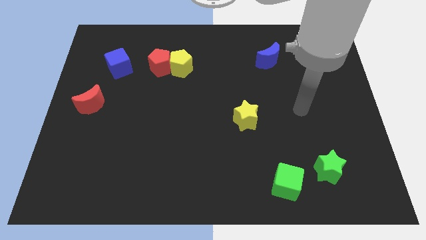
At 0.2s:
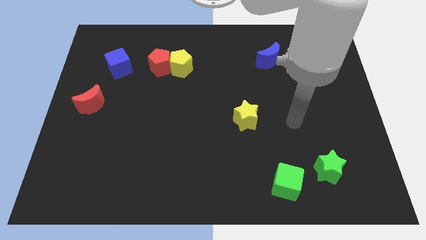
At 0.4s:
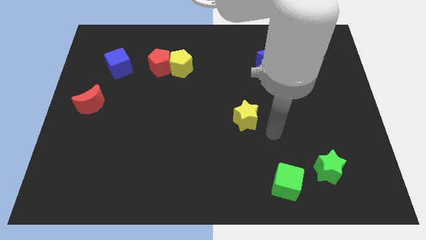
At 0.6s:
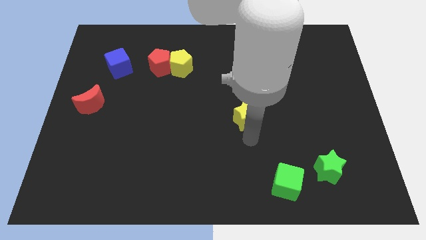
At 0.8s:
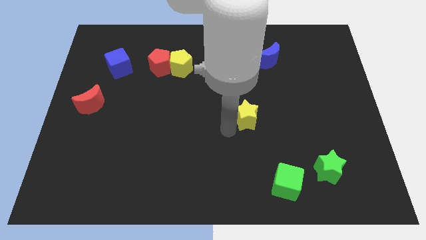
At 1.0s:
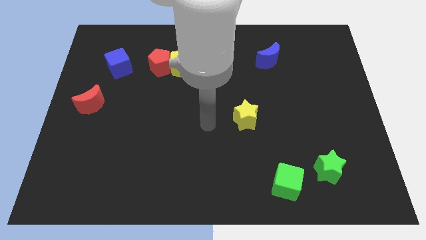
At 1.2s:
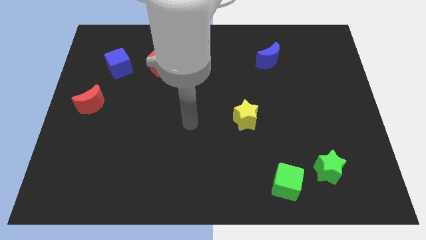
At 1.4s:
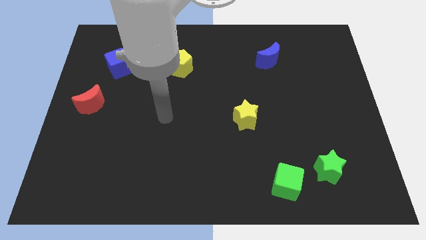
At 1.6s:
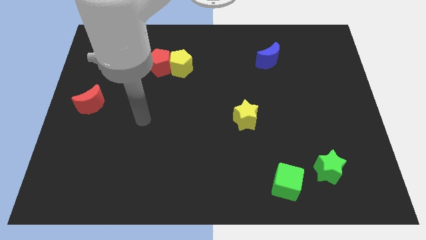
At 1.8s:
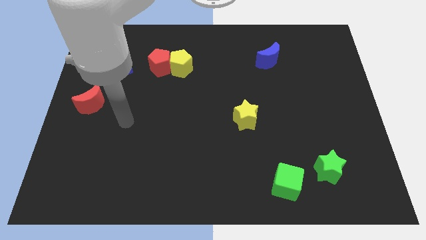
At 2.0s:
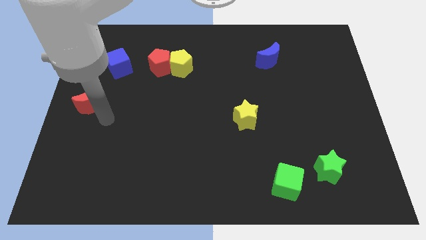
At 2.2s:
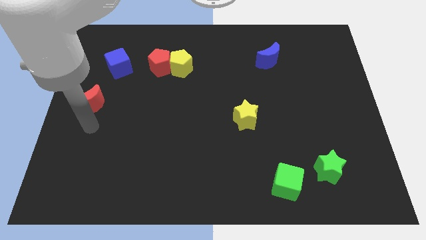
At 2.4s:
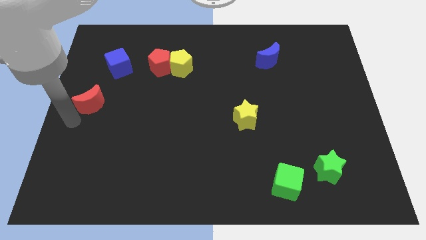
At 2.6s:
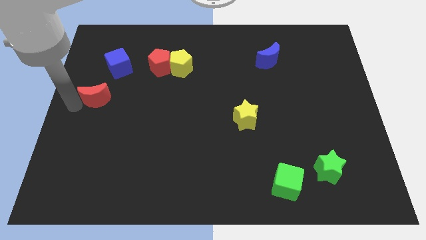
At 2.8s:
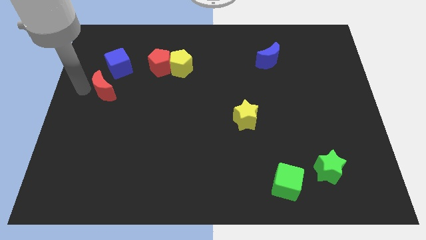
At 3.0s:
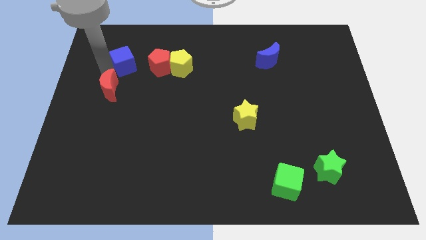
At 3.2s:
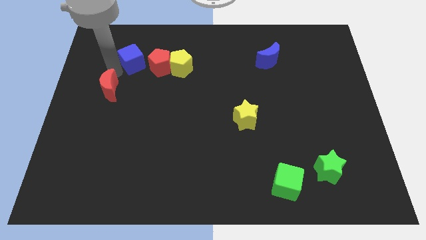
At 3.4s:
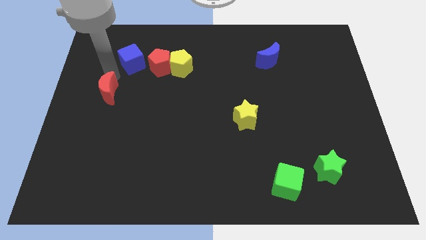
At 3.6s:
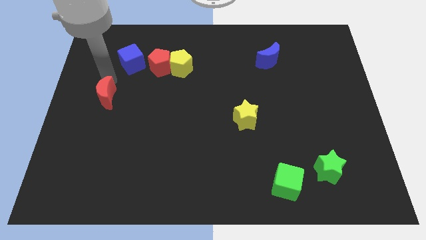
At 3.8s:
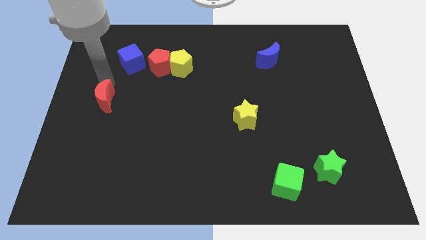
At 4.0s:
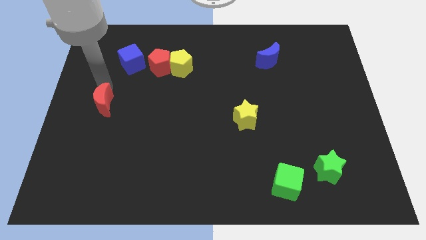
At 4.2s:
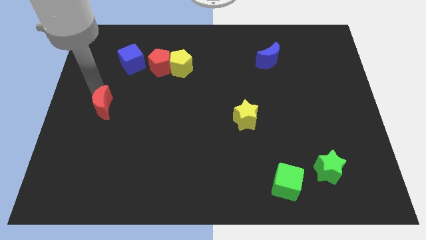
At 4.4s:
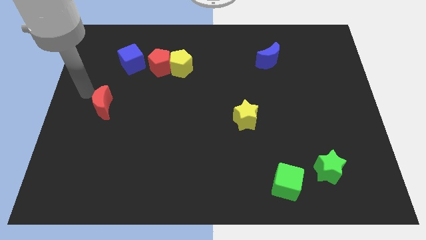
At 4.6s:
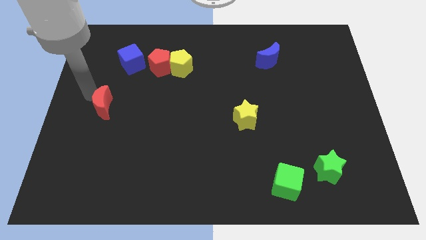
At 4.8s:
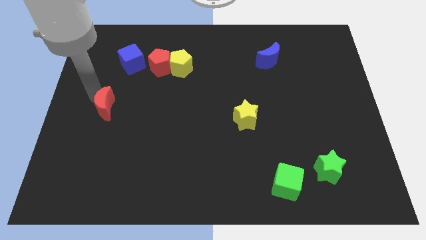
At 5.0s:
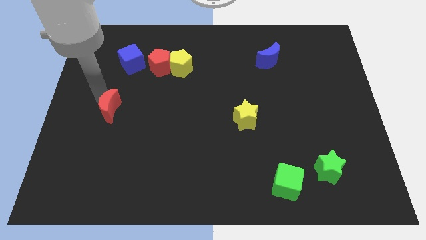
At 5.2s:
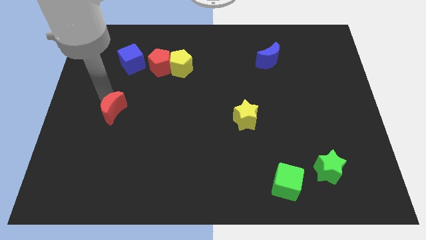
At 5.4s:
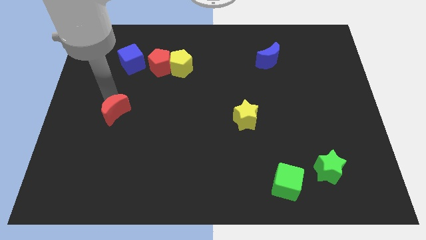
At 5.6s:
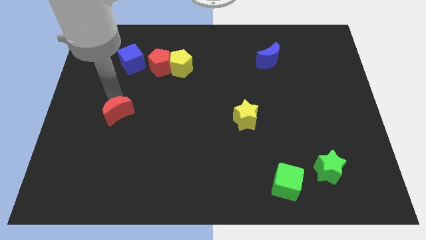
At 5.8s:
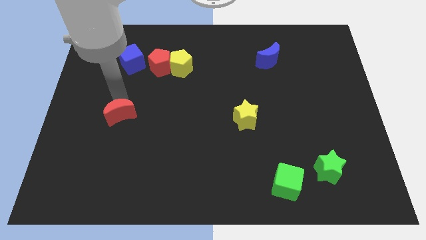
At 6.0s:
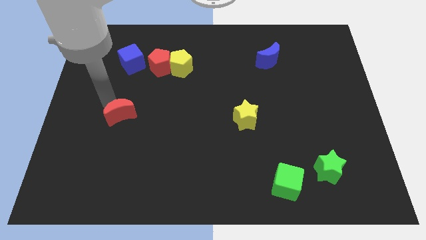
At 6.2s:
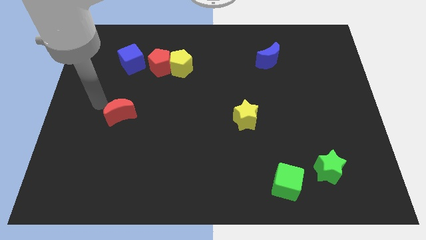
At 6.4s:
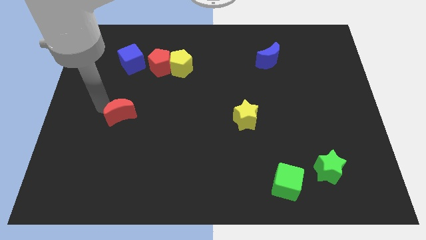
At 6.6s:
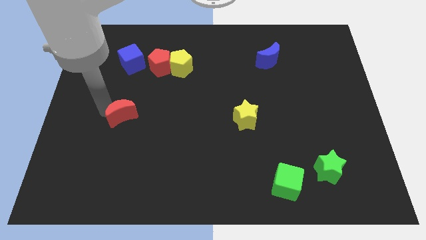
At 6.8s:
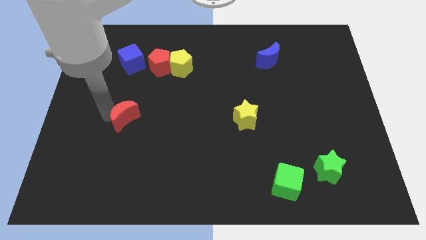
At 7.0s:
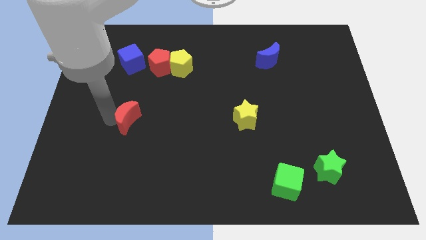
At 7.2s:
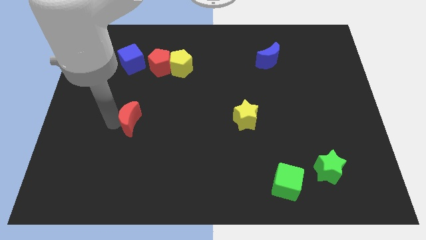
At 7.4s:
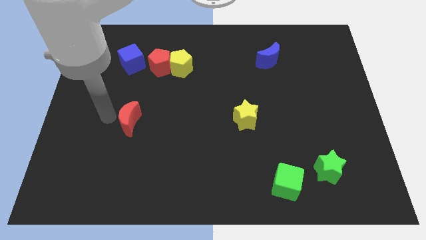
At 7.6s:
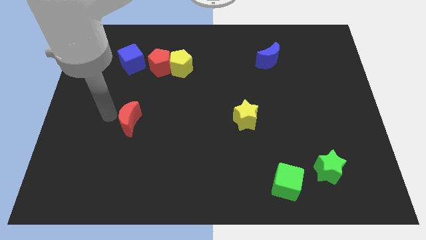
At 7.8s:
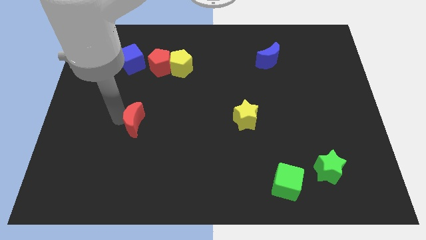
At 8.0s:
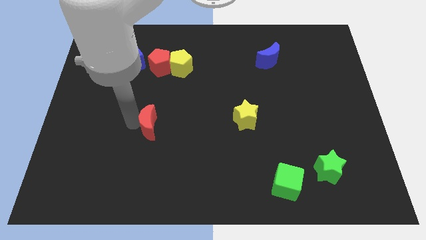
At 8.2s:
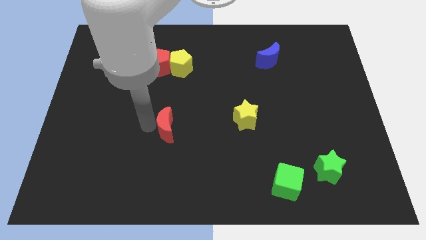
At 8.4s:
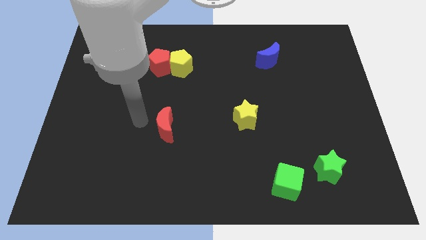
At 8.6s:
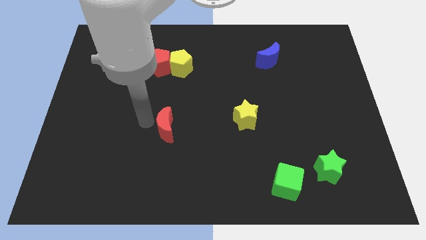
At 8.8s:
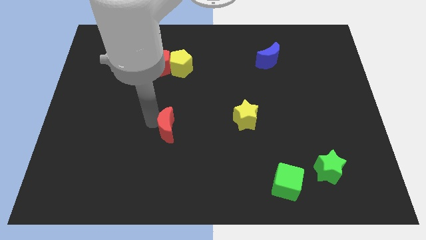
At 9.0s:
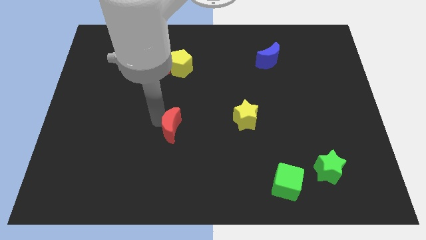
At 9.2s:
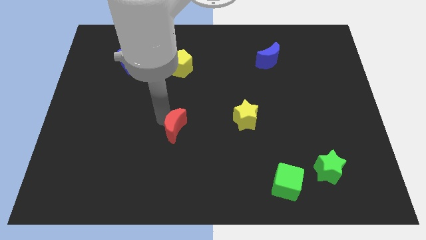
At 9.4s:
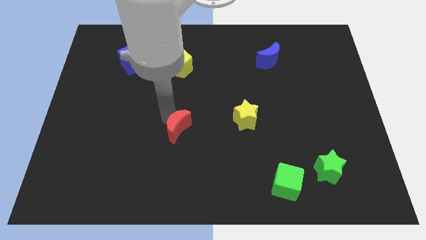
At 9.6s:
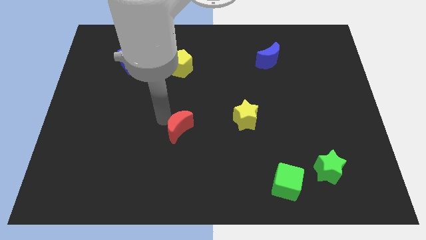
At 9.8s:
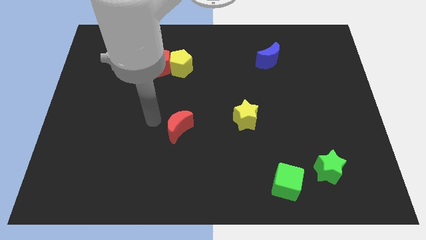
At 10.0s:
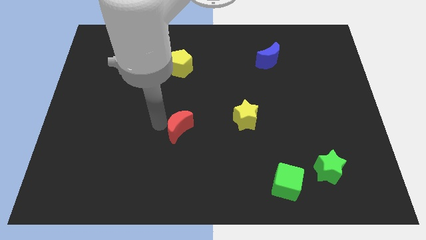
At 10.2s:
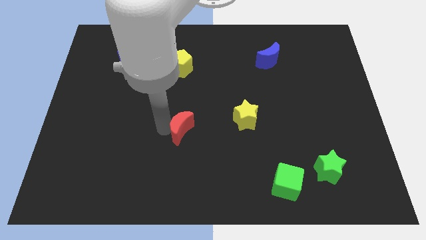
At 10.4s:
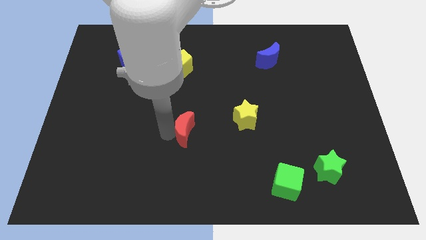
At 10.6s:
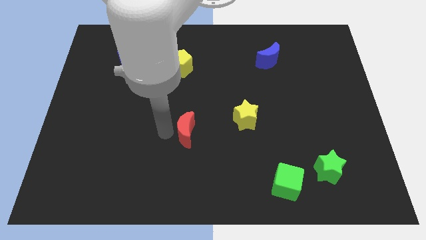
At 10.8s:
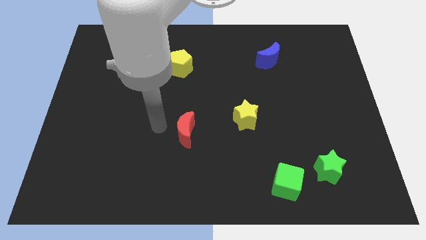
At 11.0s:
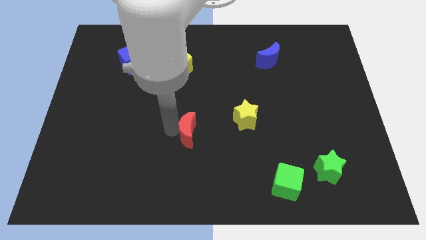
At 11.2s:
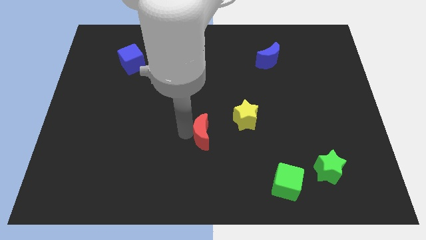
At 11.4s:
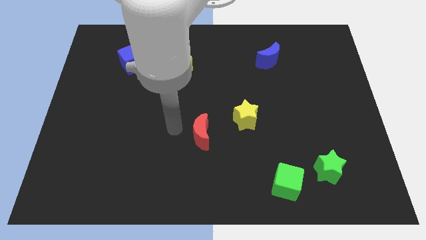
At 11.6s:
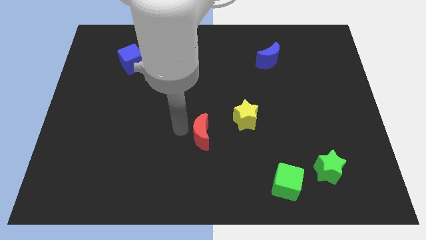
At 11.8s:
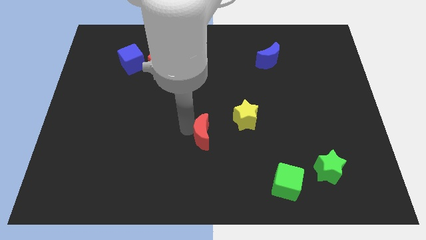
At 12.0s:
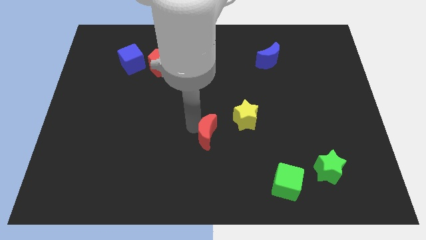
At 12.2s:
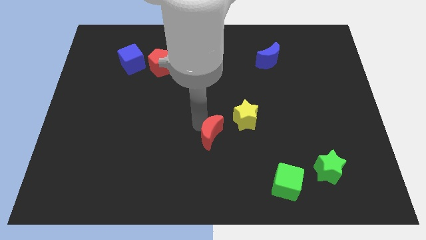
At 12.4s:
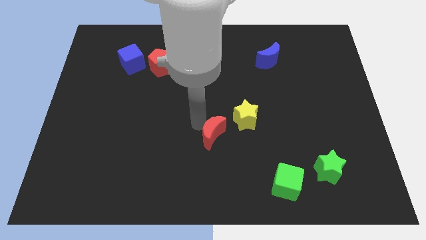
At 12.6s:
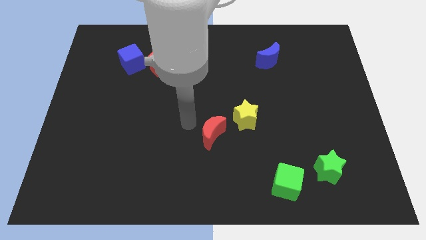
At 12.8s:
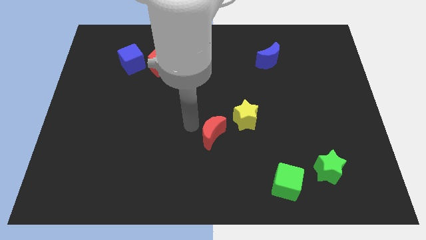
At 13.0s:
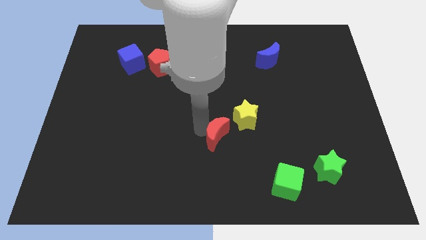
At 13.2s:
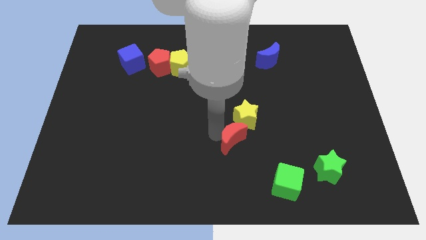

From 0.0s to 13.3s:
push the red moon to the bottom of the yellow star
